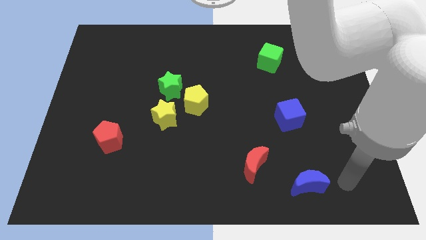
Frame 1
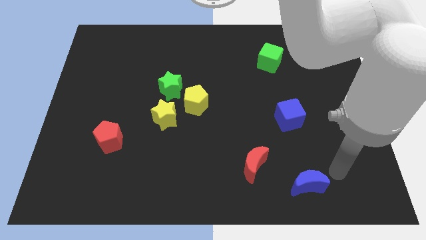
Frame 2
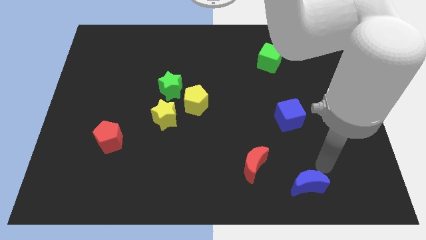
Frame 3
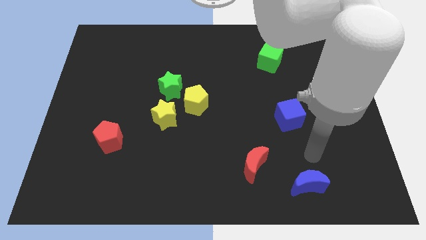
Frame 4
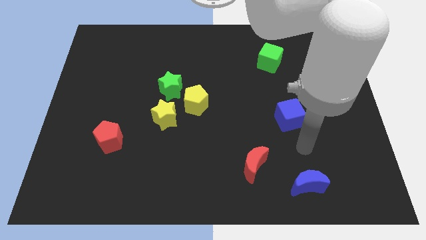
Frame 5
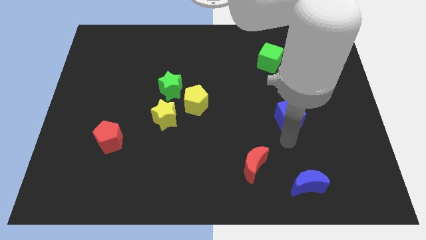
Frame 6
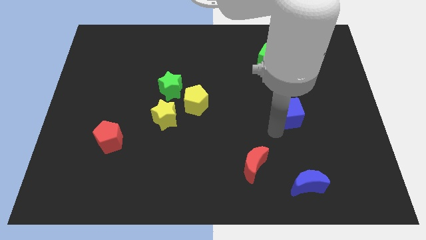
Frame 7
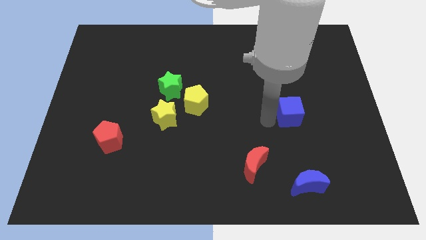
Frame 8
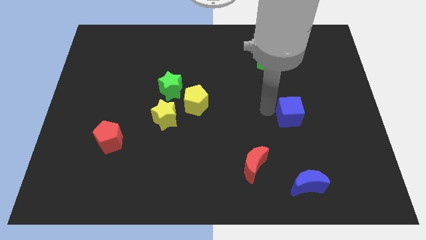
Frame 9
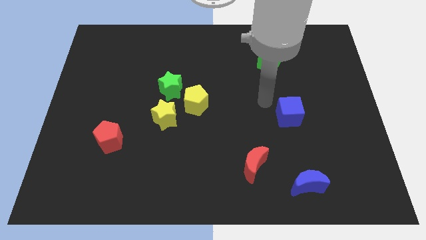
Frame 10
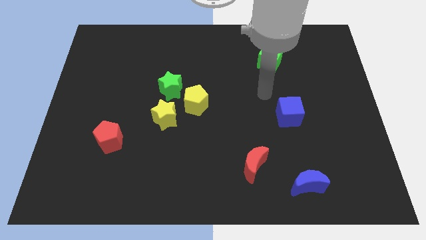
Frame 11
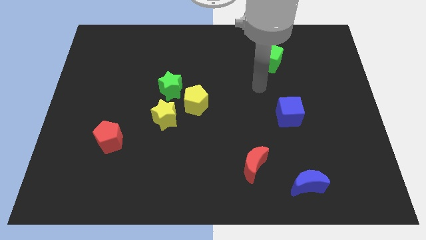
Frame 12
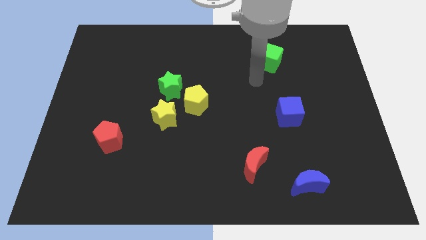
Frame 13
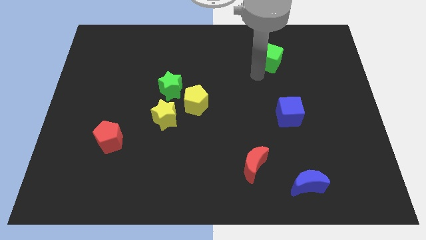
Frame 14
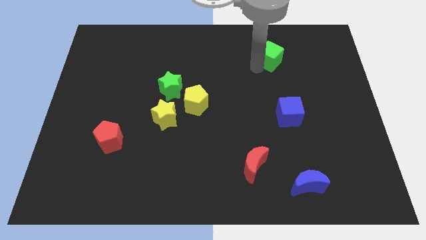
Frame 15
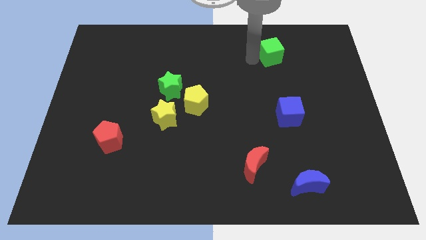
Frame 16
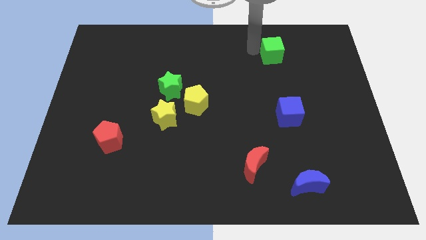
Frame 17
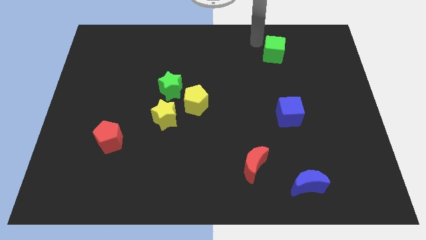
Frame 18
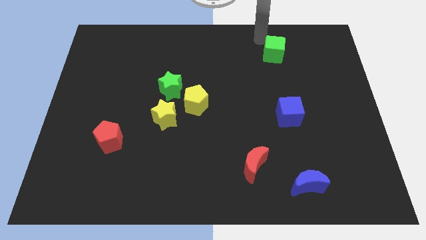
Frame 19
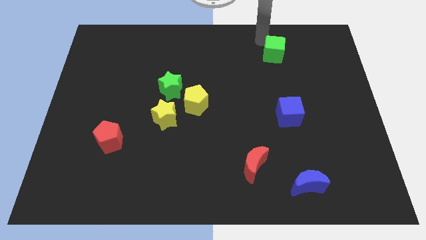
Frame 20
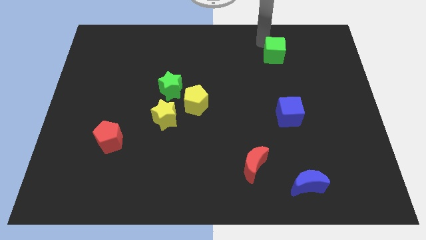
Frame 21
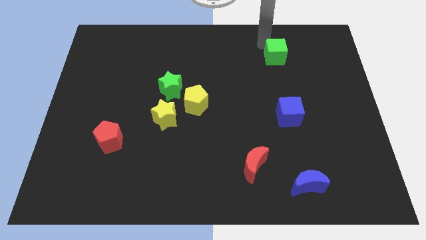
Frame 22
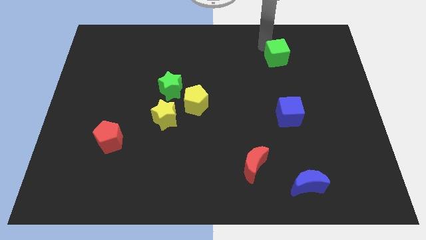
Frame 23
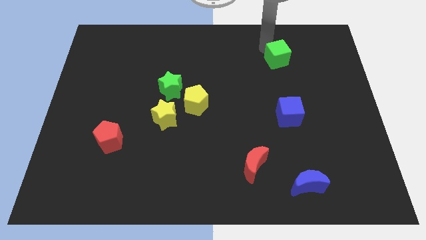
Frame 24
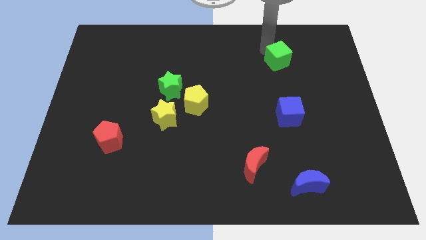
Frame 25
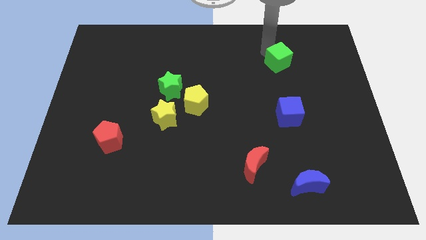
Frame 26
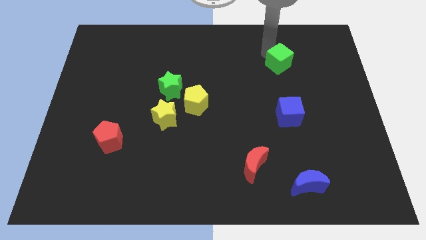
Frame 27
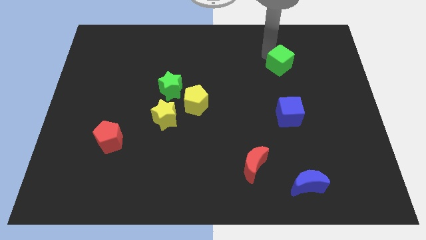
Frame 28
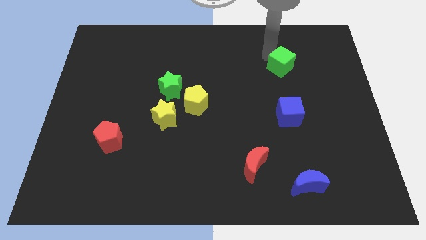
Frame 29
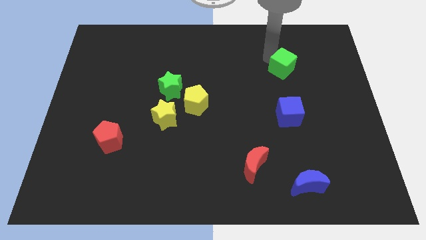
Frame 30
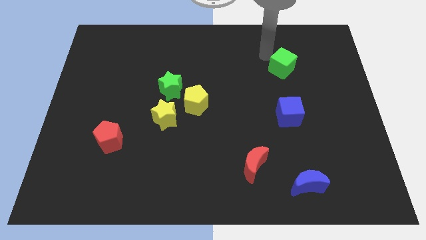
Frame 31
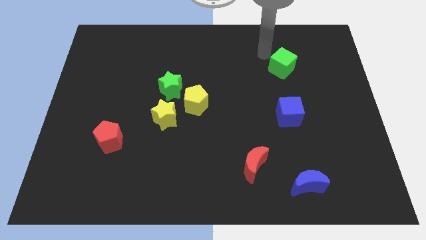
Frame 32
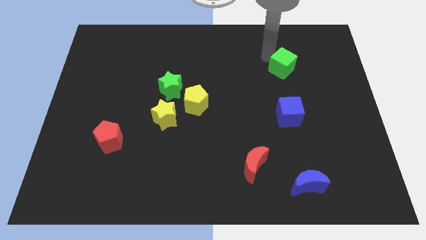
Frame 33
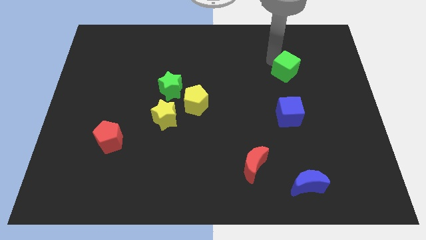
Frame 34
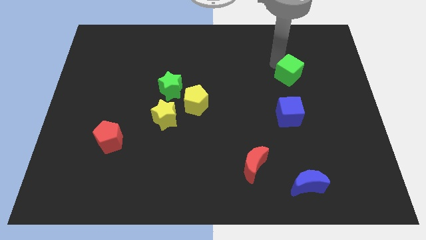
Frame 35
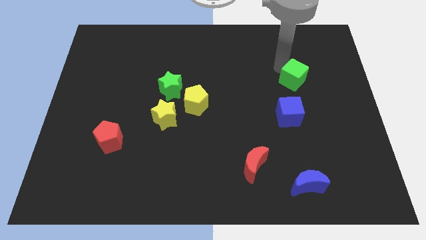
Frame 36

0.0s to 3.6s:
move the green cube a little bit downwards and to the right

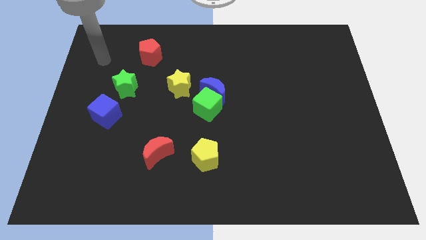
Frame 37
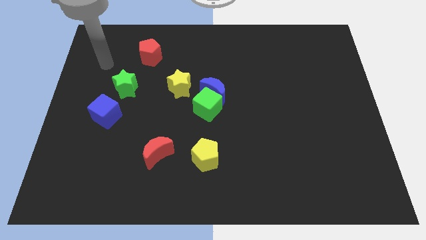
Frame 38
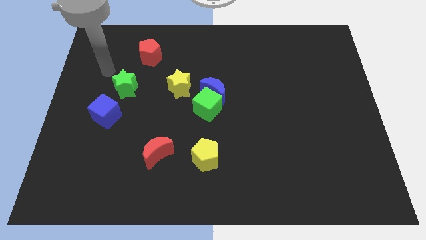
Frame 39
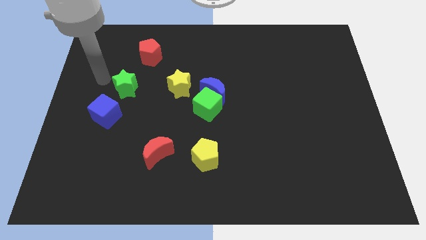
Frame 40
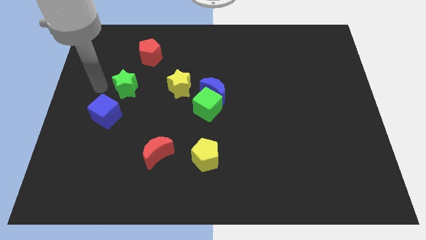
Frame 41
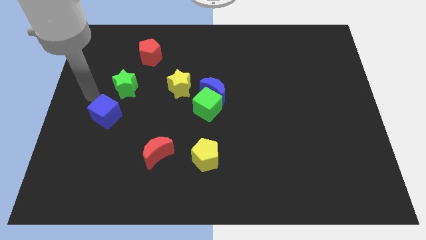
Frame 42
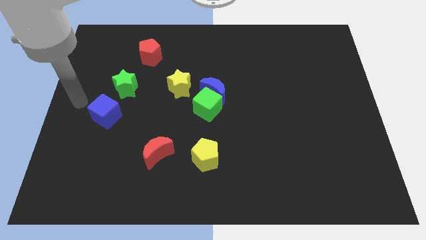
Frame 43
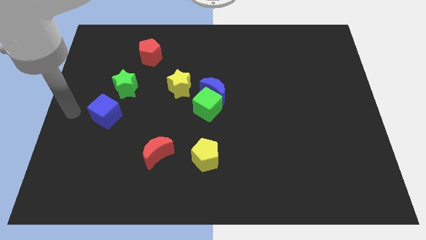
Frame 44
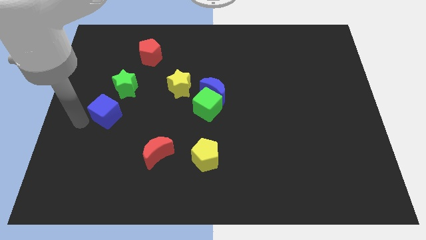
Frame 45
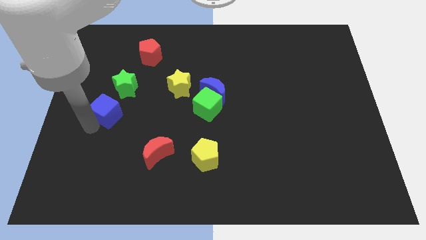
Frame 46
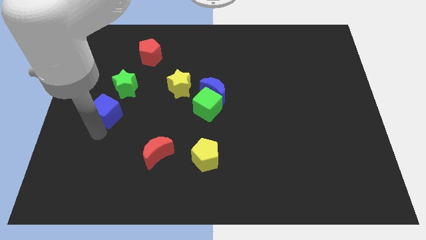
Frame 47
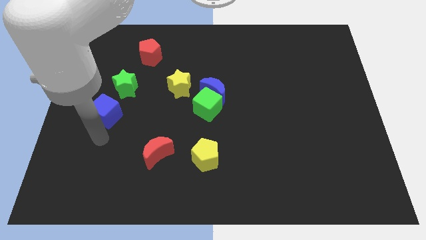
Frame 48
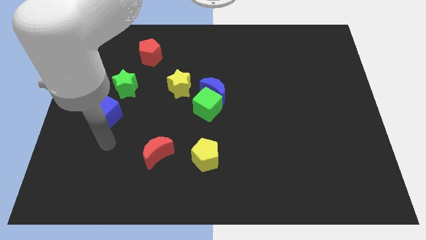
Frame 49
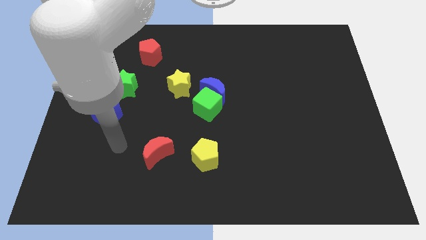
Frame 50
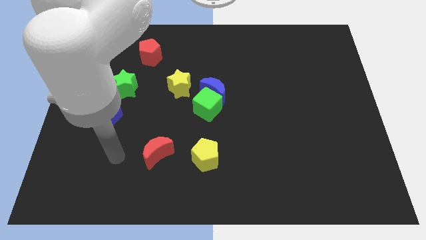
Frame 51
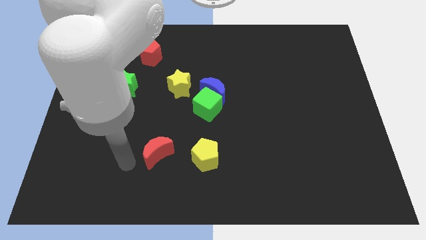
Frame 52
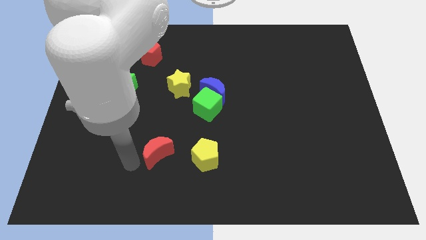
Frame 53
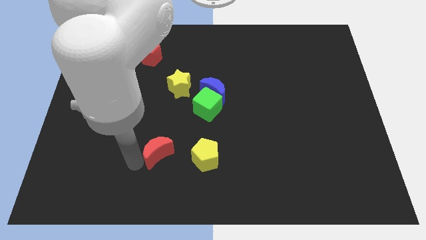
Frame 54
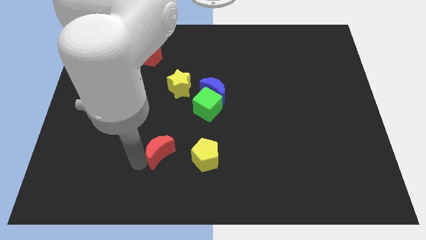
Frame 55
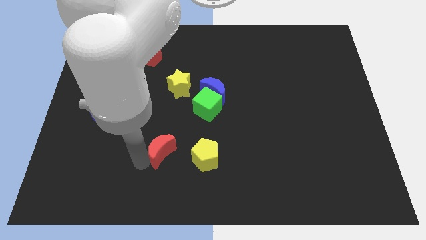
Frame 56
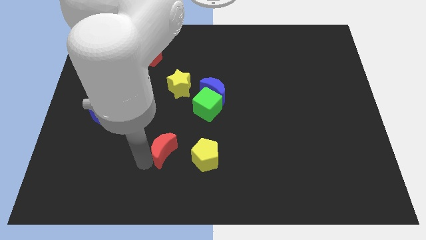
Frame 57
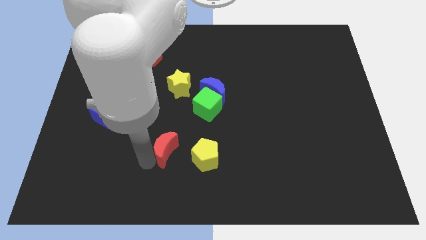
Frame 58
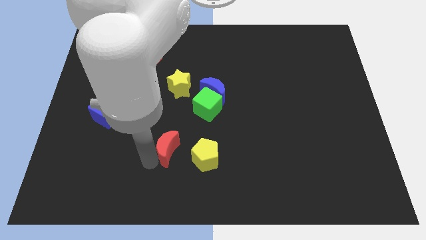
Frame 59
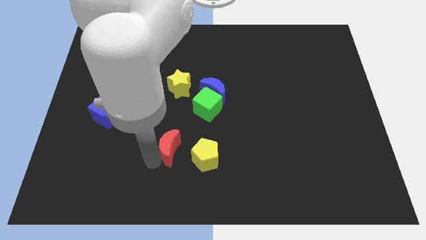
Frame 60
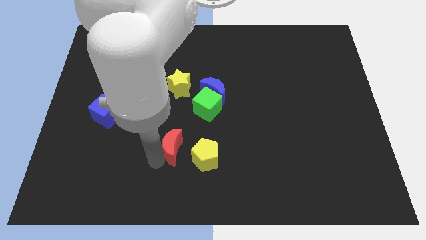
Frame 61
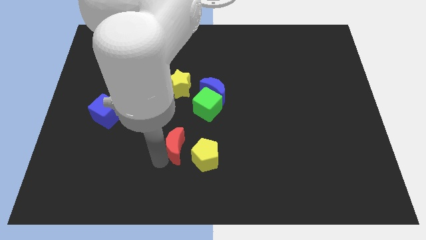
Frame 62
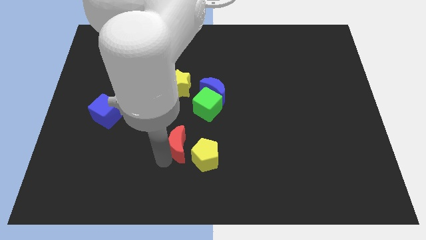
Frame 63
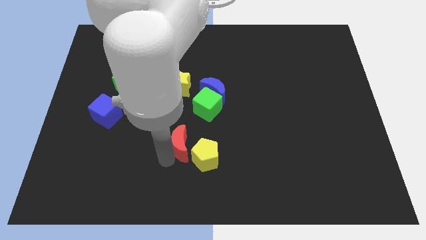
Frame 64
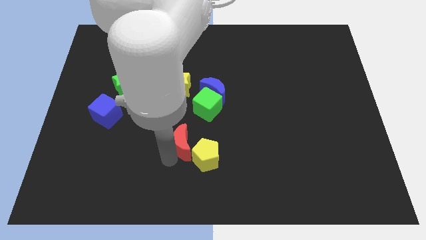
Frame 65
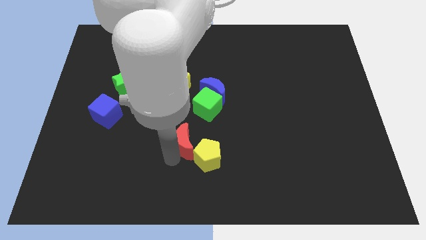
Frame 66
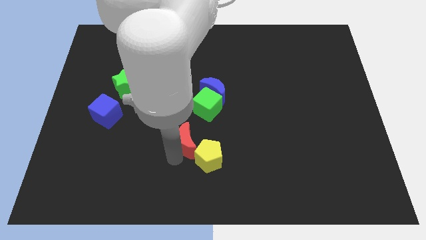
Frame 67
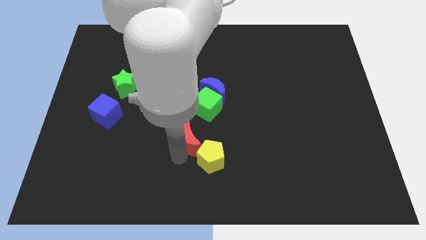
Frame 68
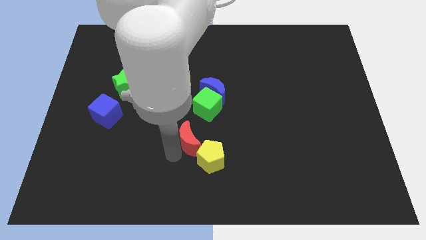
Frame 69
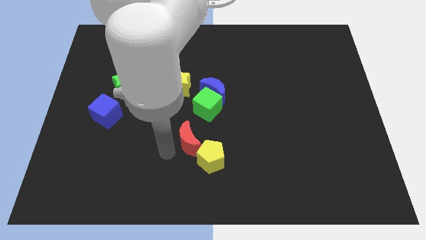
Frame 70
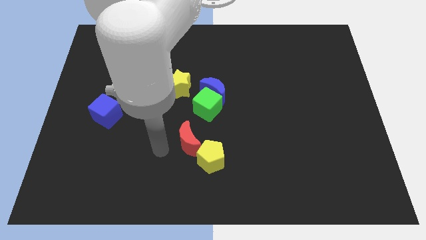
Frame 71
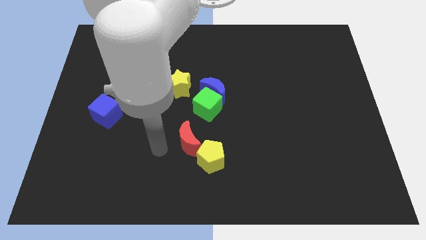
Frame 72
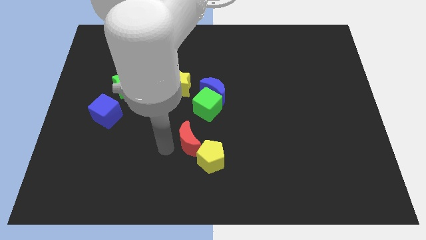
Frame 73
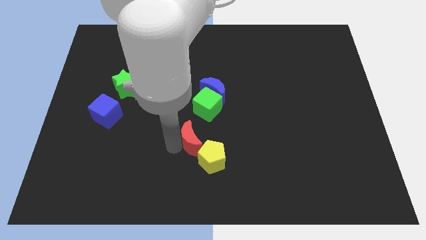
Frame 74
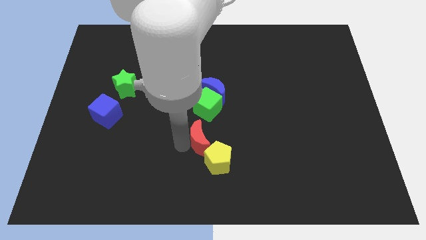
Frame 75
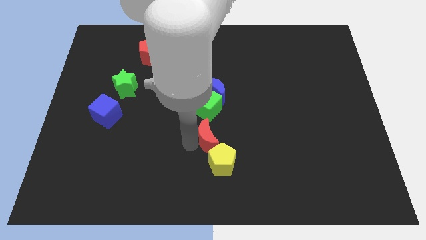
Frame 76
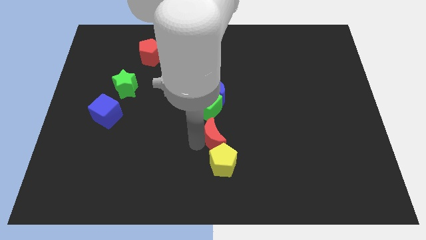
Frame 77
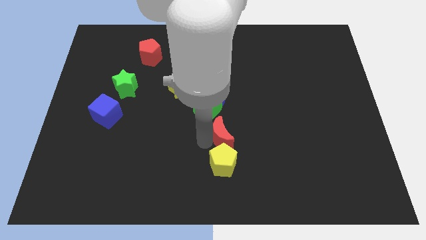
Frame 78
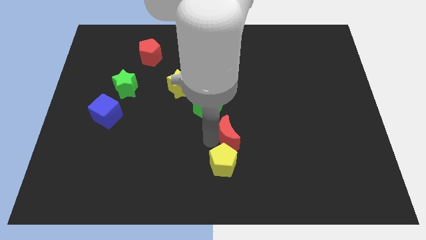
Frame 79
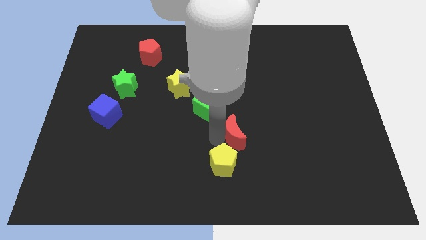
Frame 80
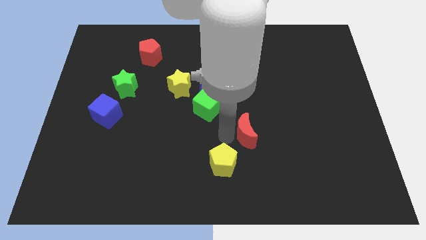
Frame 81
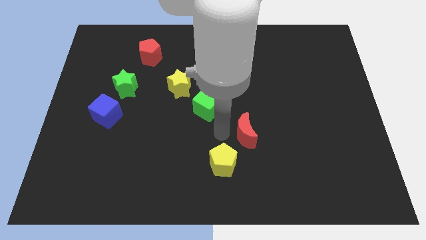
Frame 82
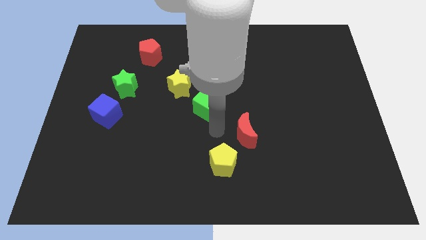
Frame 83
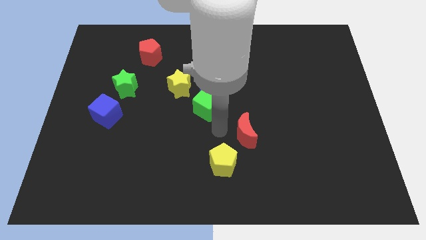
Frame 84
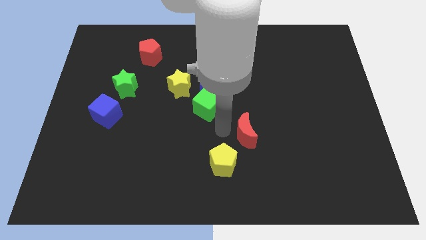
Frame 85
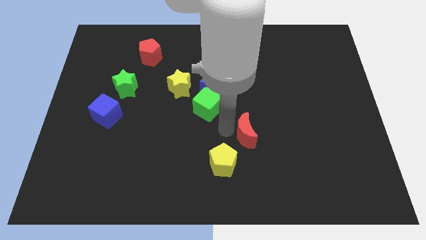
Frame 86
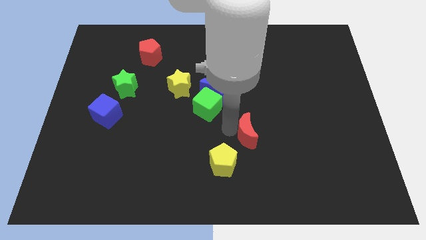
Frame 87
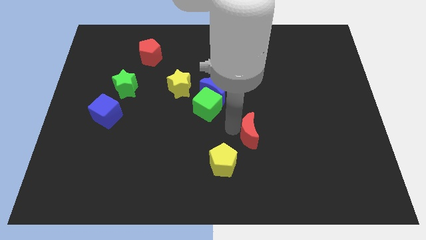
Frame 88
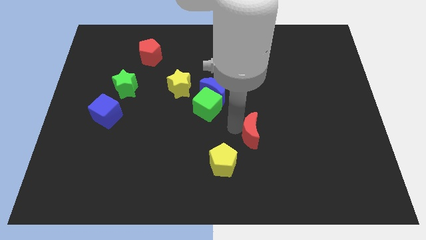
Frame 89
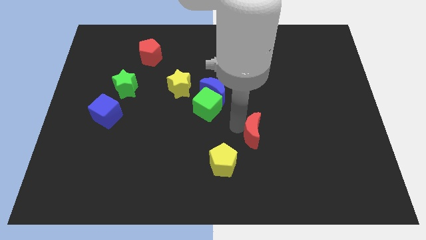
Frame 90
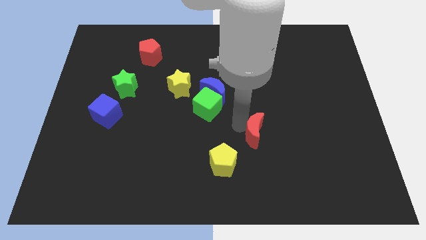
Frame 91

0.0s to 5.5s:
slide the red moon to the right
